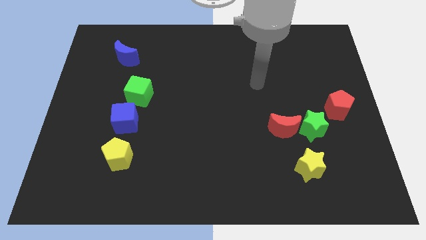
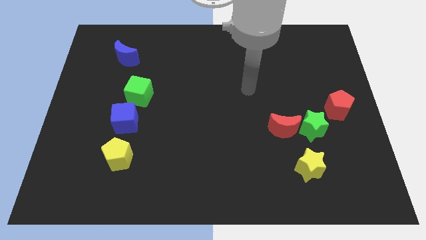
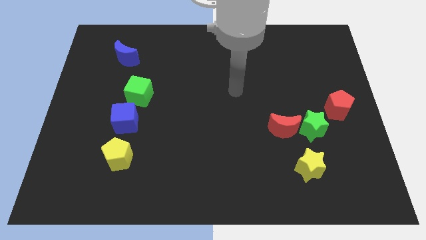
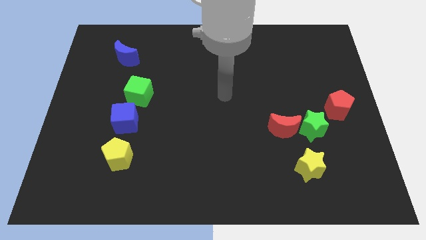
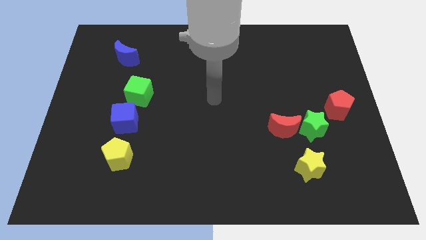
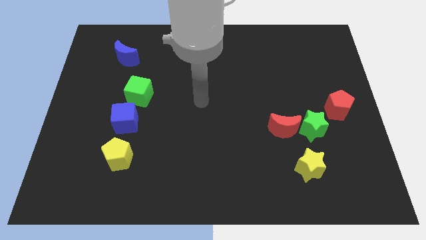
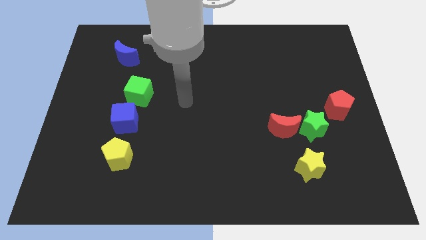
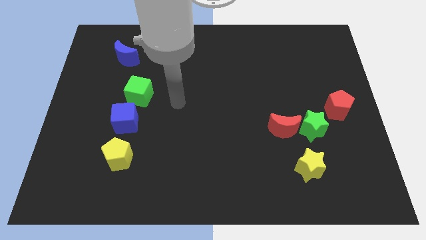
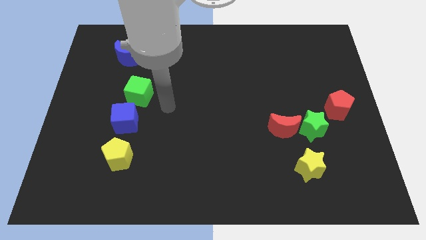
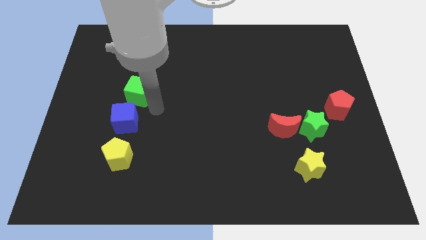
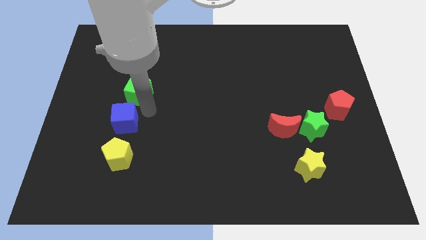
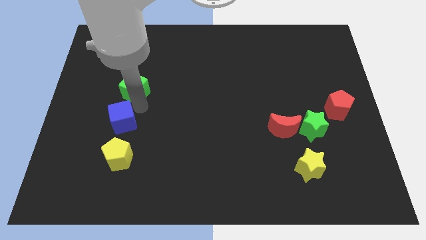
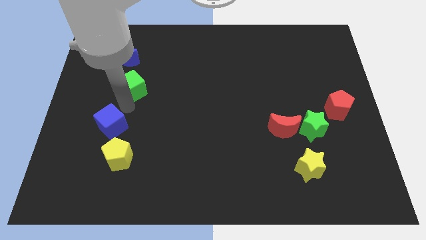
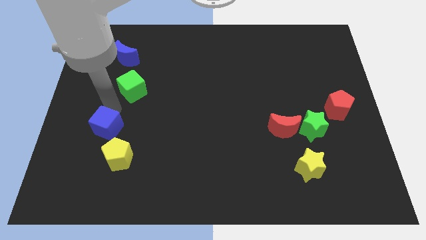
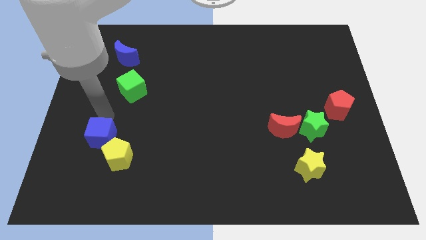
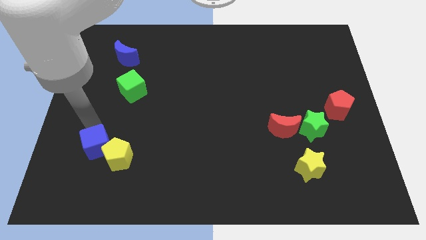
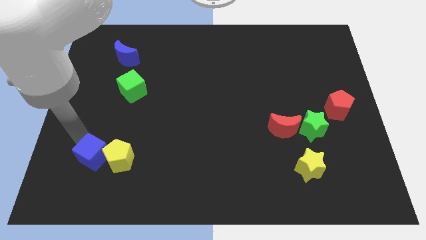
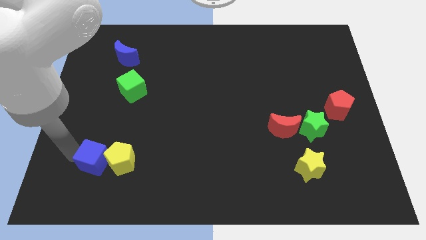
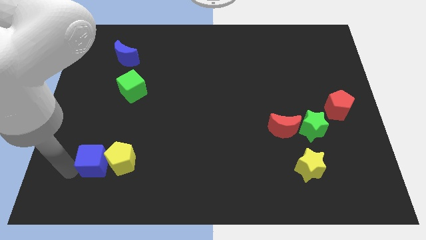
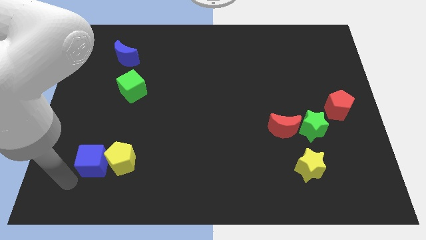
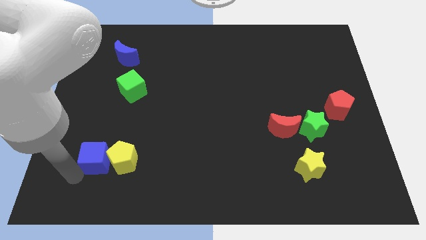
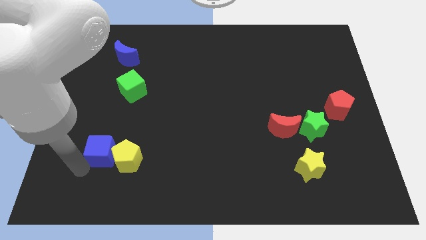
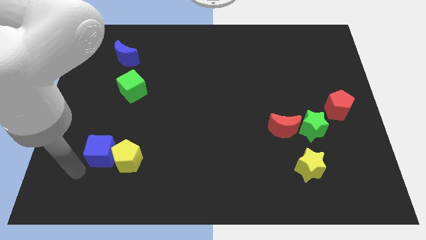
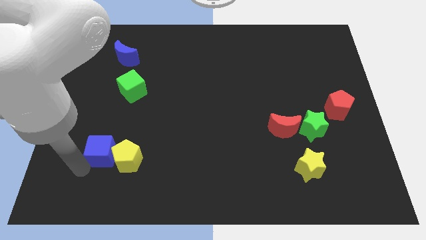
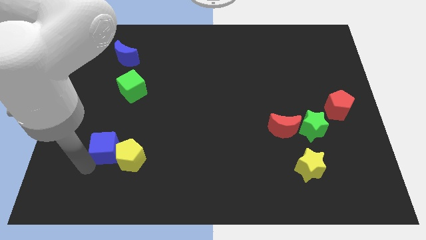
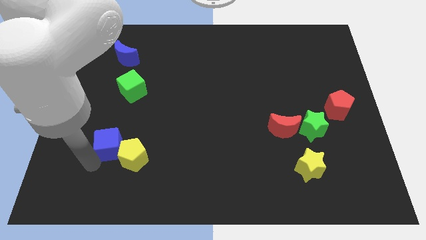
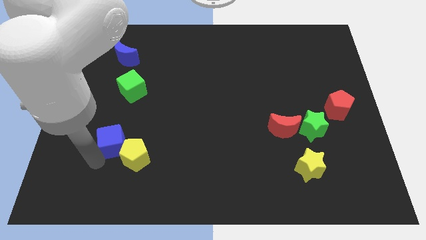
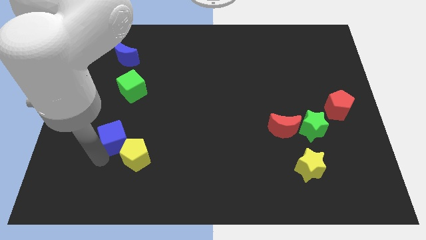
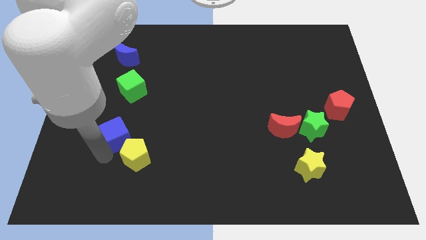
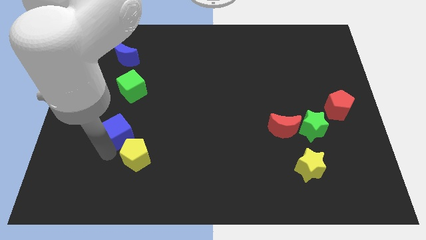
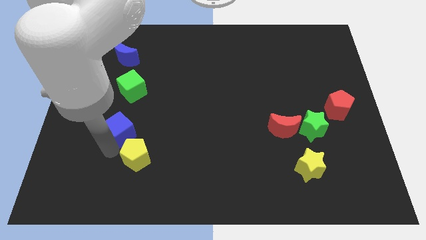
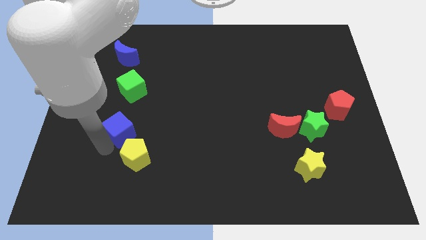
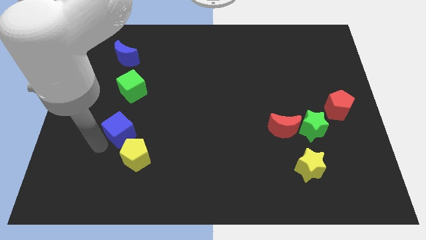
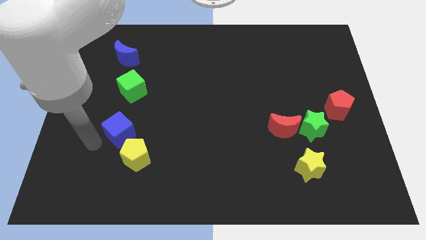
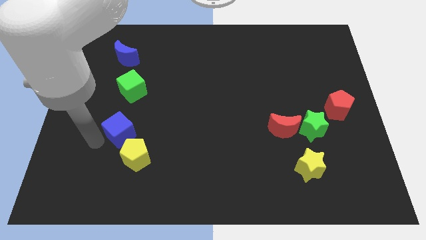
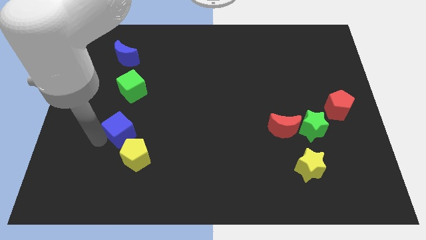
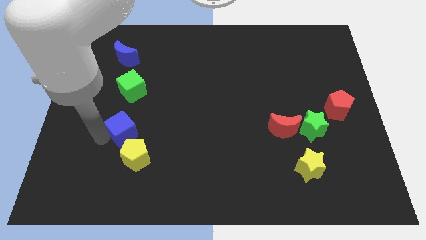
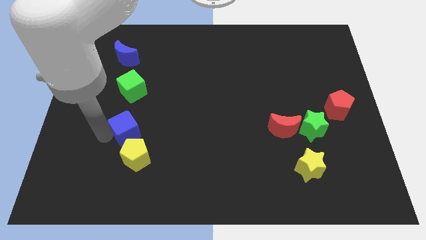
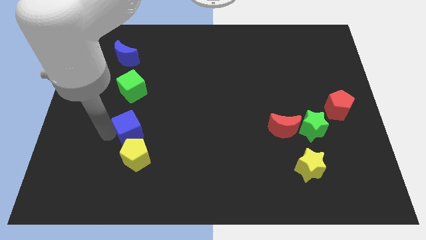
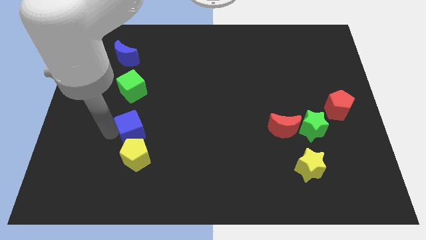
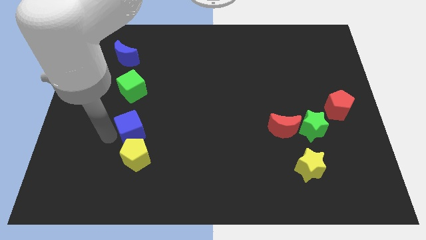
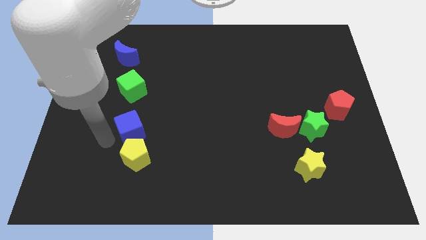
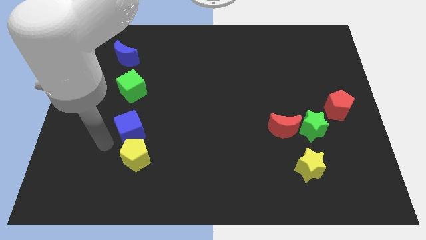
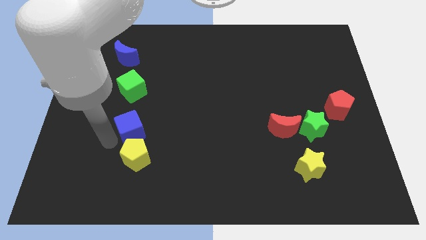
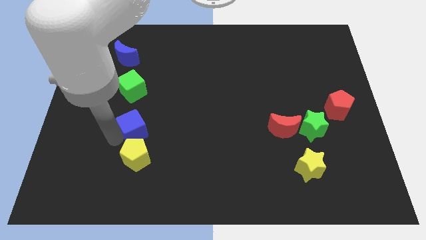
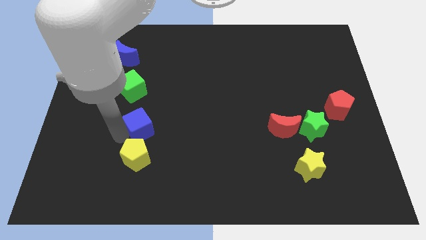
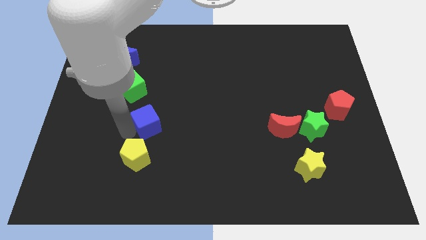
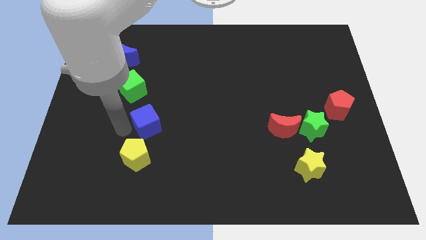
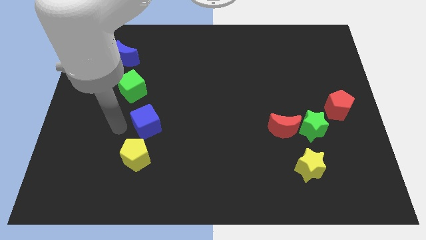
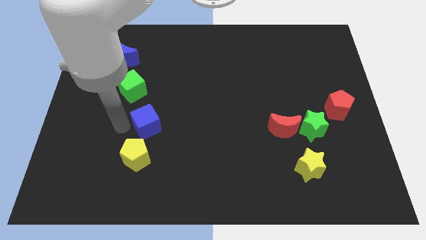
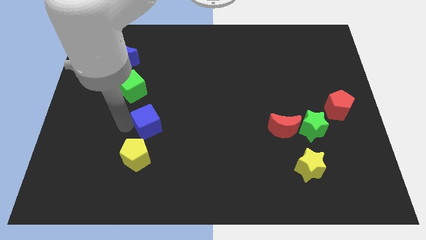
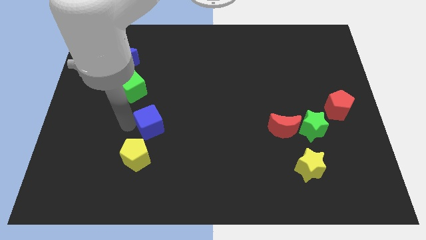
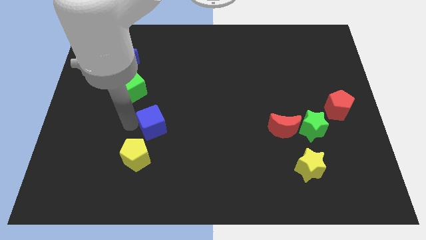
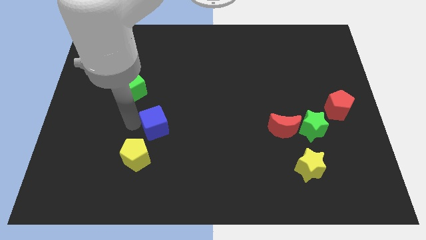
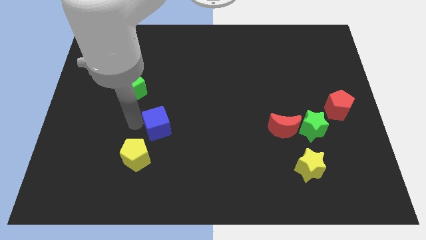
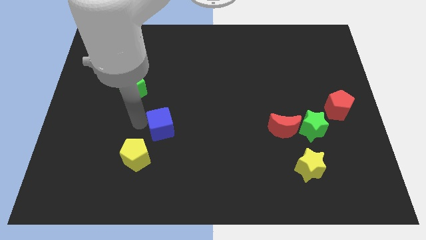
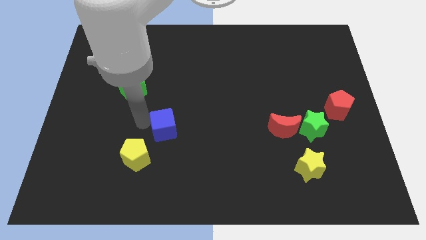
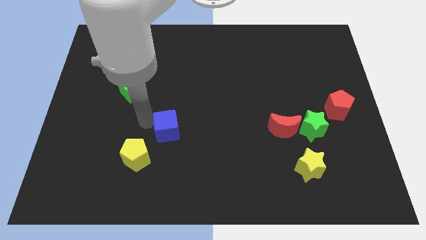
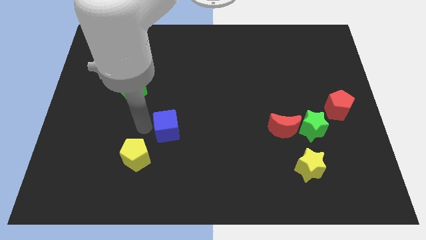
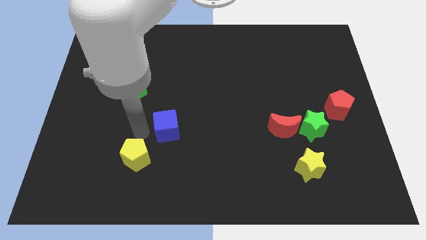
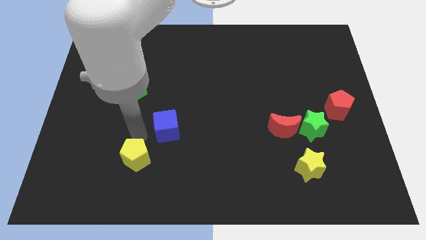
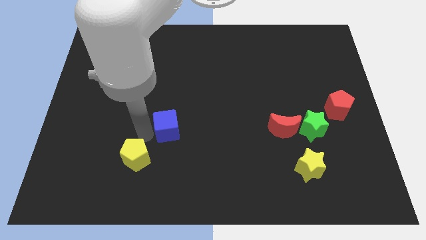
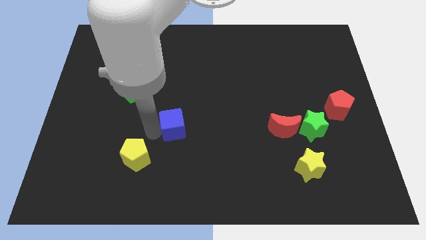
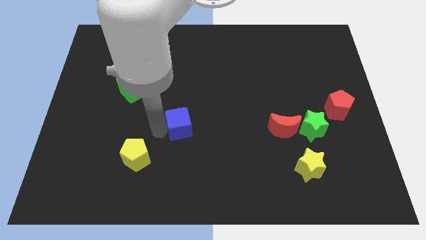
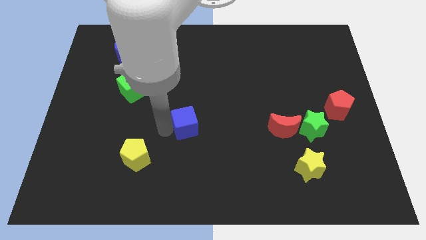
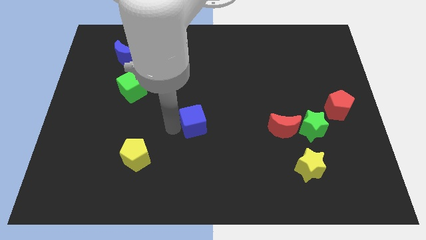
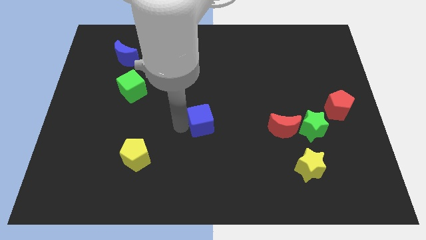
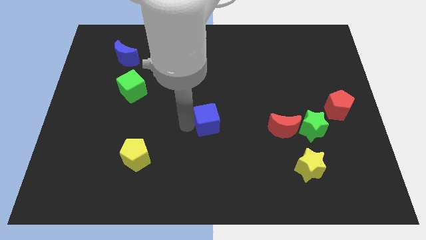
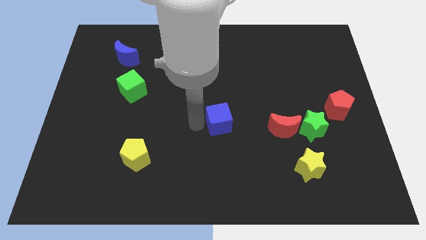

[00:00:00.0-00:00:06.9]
slide the blue cube to the right

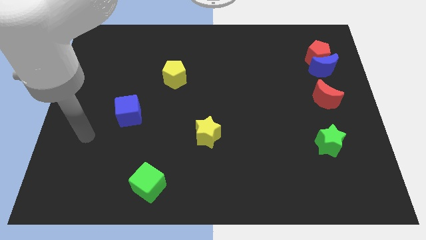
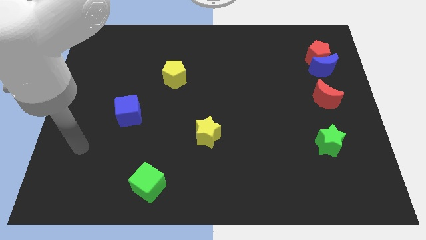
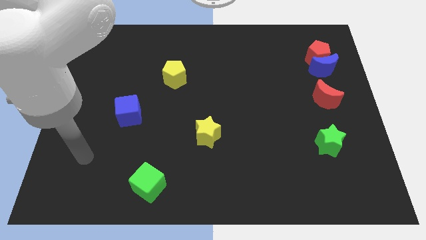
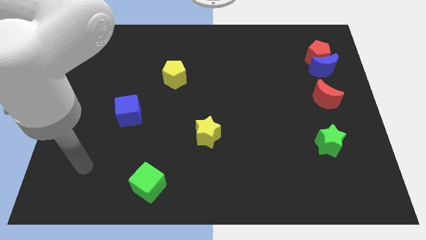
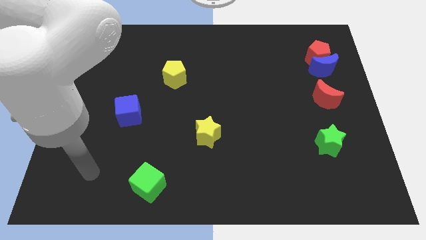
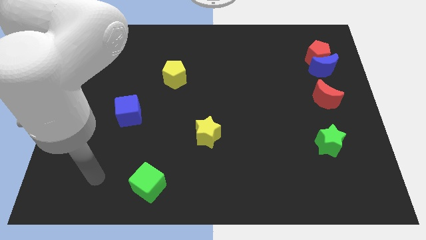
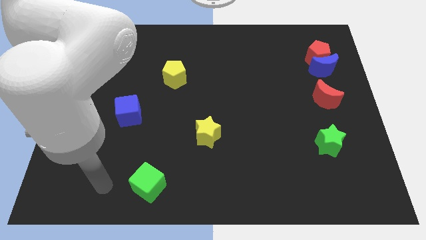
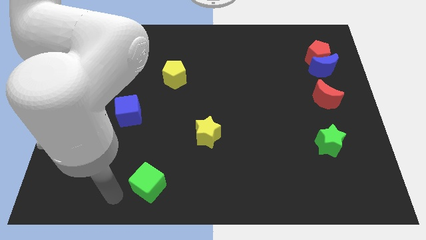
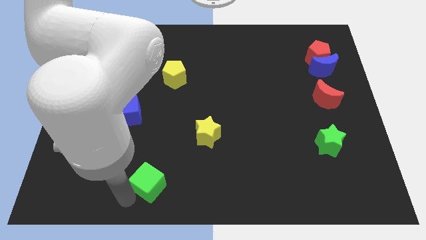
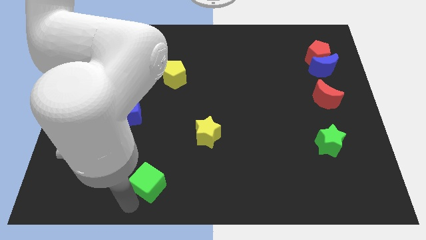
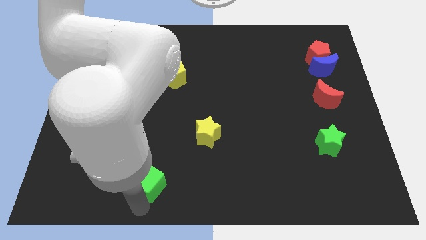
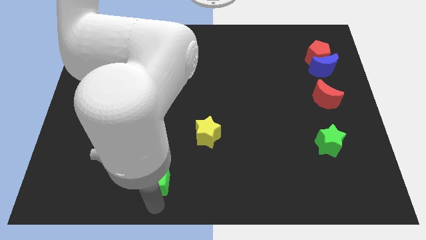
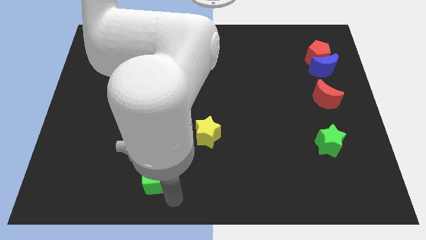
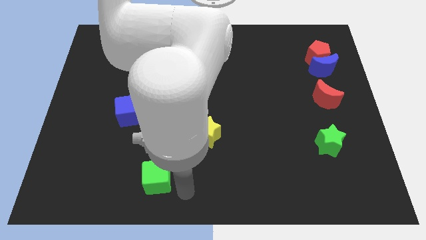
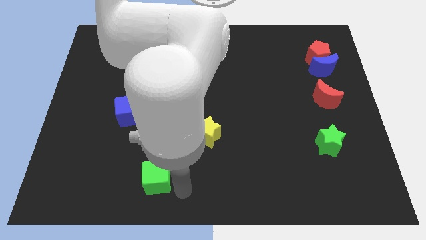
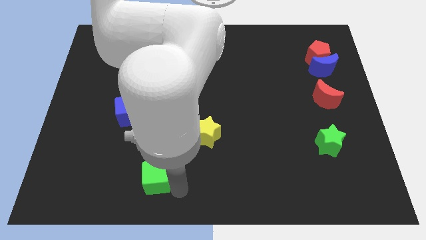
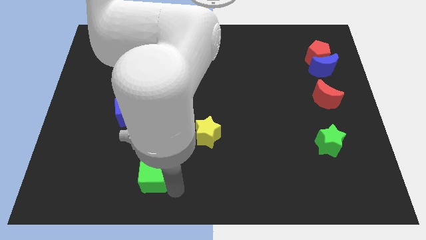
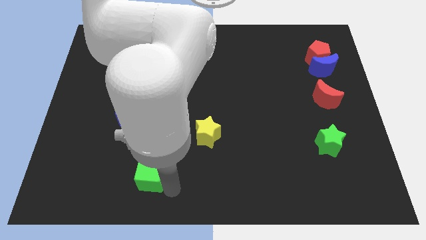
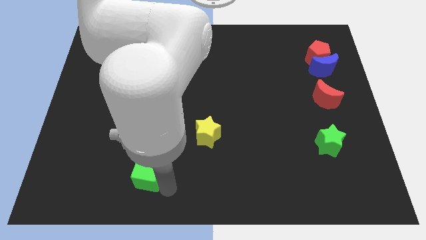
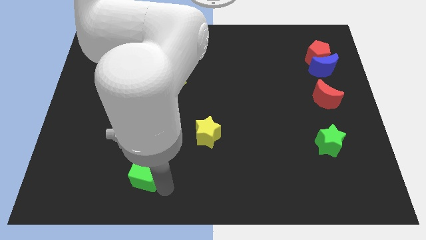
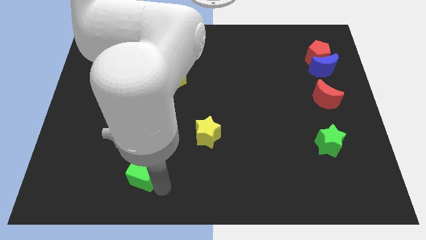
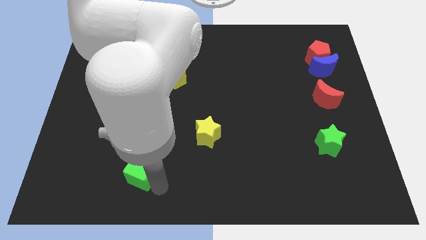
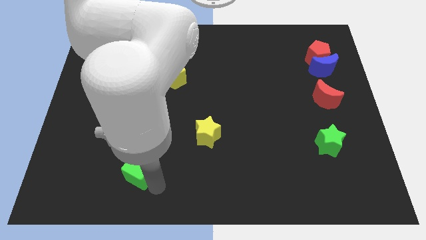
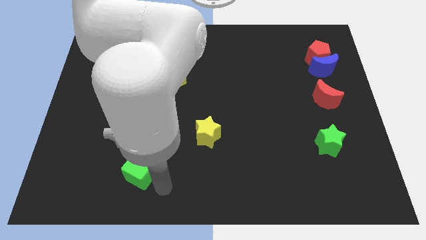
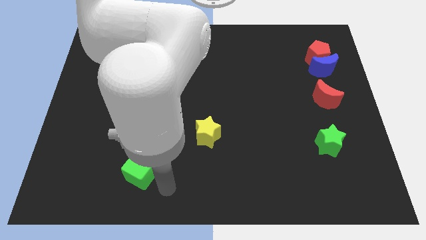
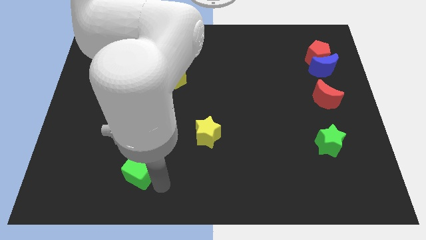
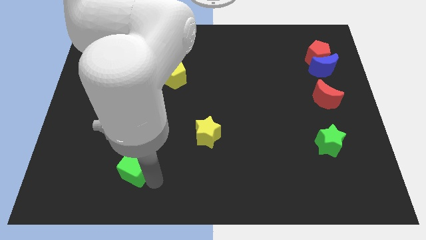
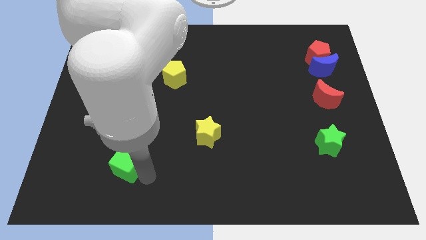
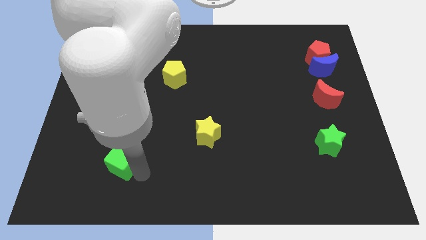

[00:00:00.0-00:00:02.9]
move the green cube diagonally upwards and left a little bit
